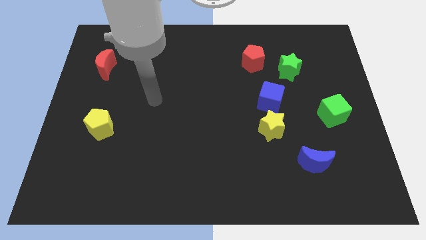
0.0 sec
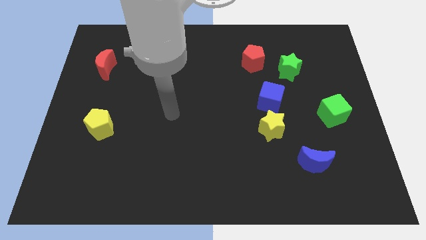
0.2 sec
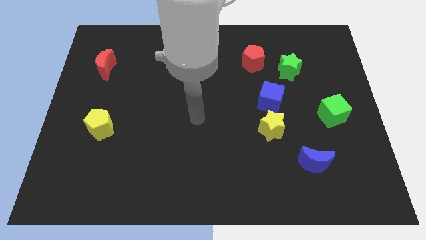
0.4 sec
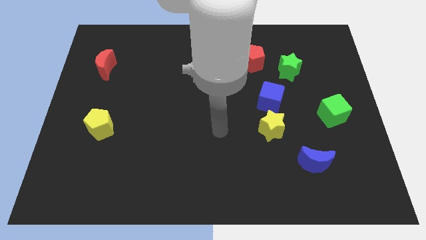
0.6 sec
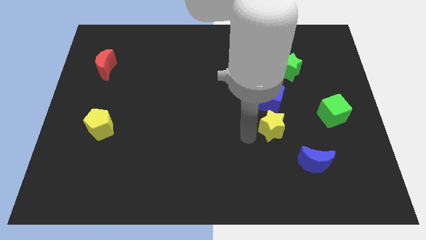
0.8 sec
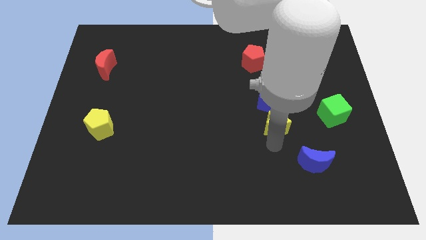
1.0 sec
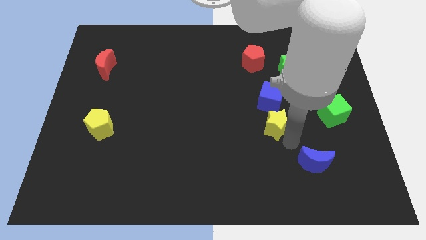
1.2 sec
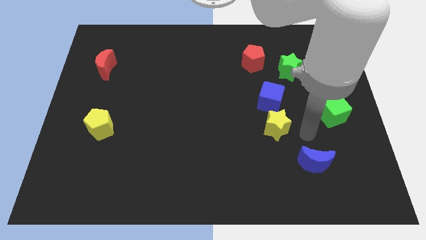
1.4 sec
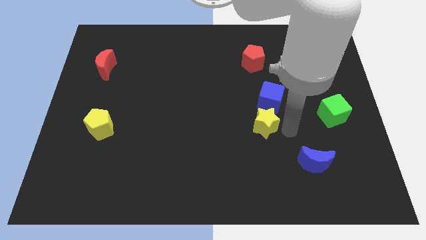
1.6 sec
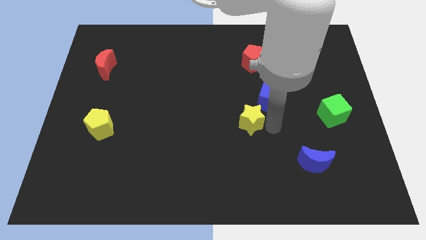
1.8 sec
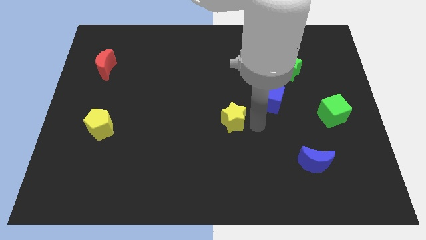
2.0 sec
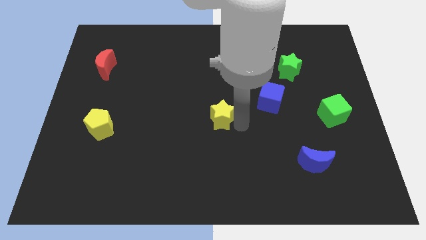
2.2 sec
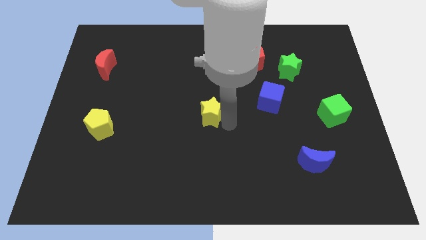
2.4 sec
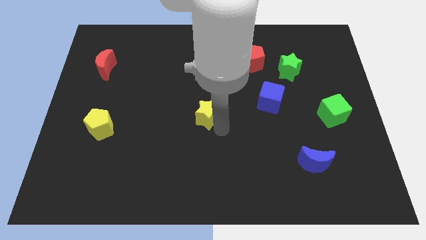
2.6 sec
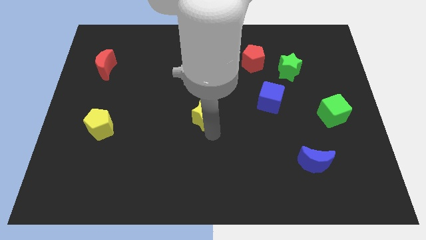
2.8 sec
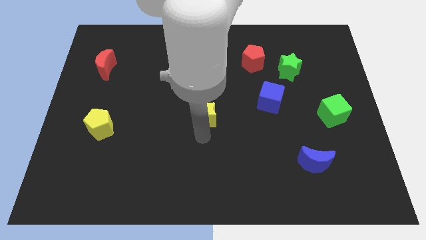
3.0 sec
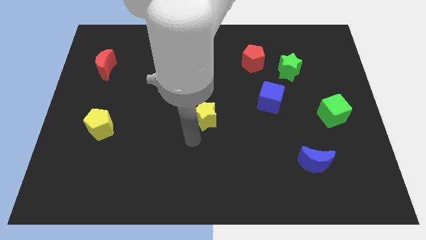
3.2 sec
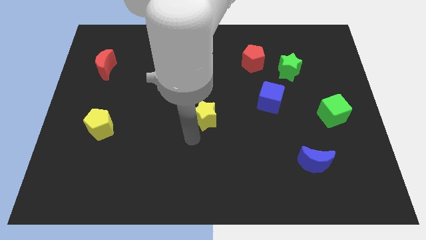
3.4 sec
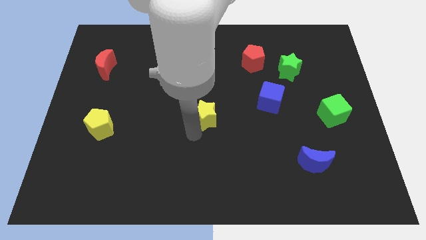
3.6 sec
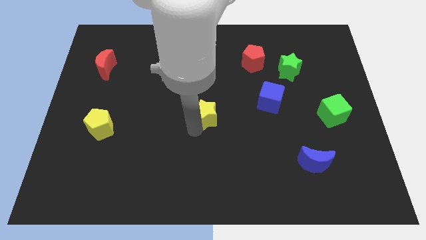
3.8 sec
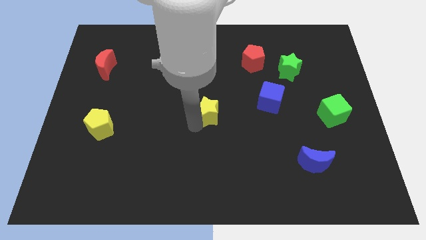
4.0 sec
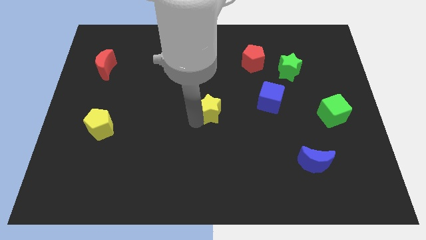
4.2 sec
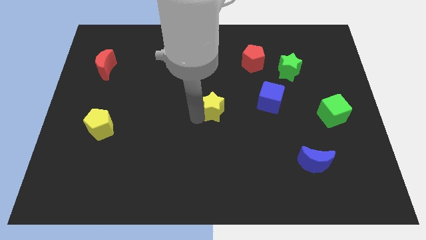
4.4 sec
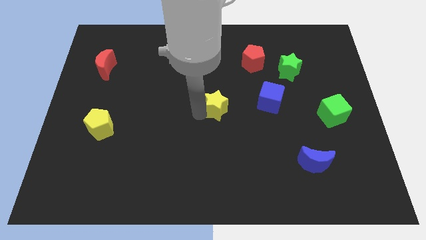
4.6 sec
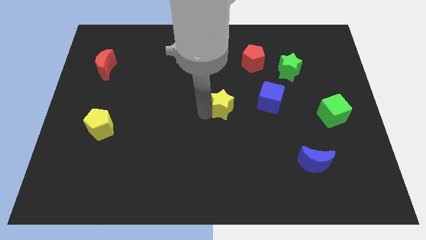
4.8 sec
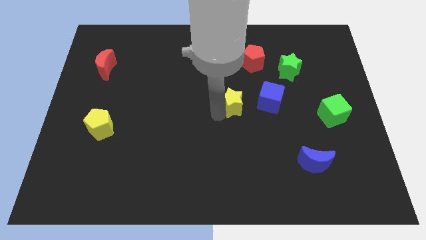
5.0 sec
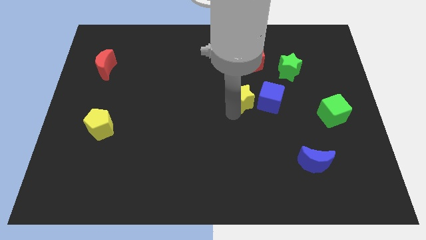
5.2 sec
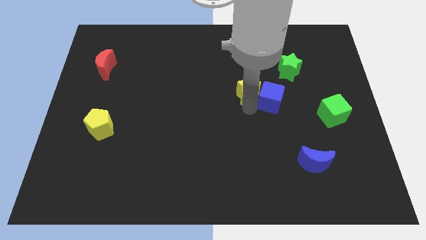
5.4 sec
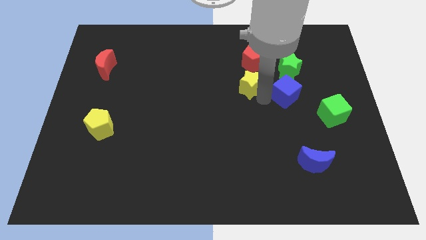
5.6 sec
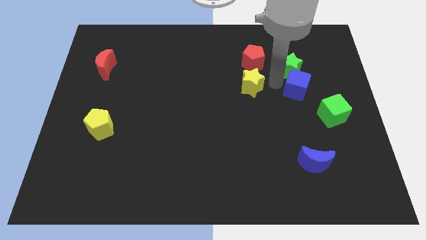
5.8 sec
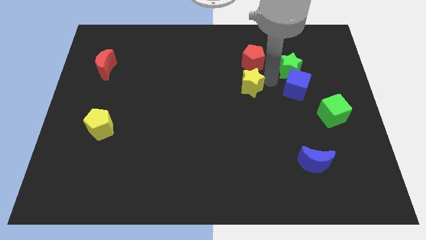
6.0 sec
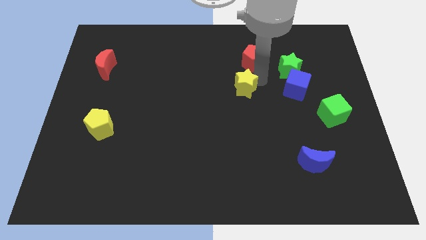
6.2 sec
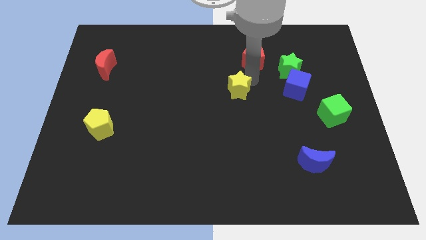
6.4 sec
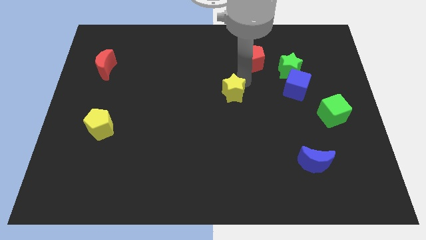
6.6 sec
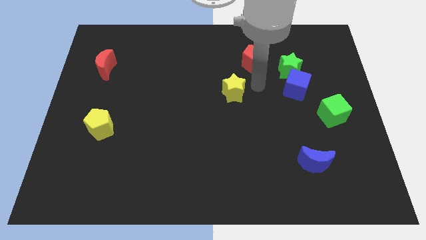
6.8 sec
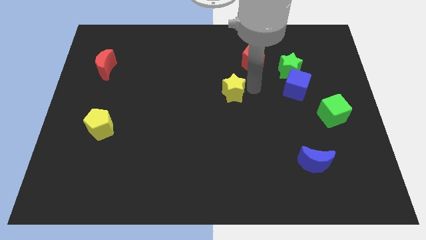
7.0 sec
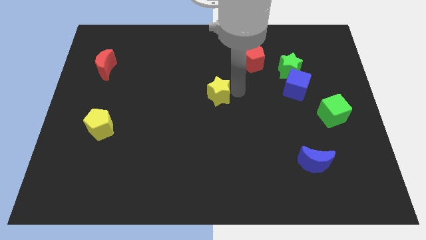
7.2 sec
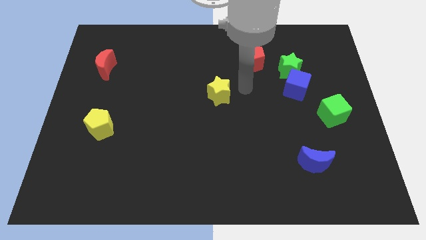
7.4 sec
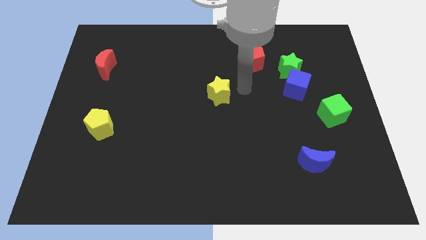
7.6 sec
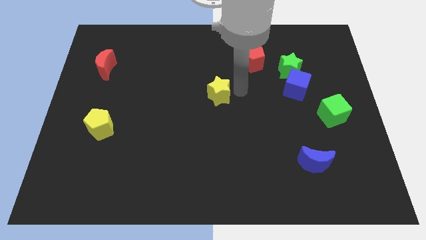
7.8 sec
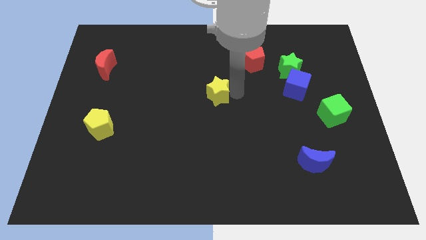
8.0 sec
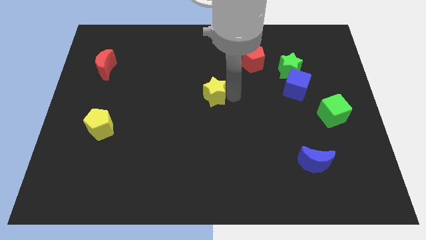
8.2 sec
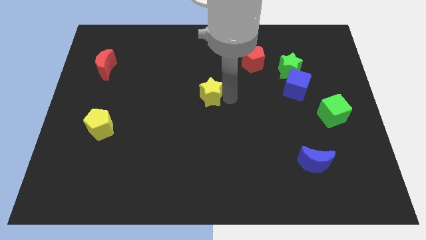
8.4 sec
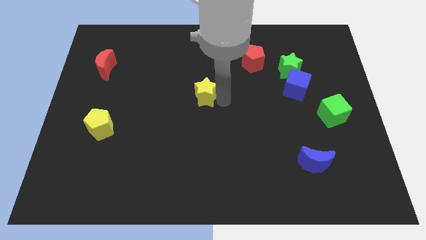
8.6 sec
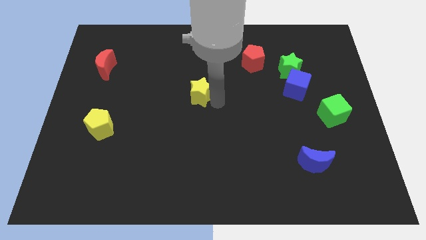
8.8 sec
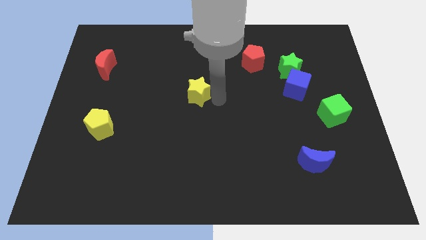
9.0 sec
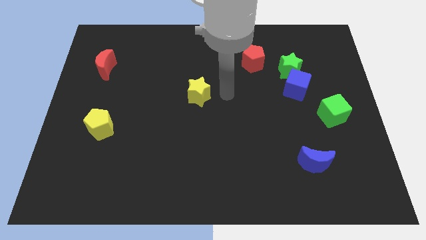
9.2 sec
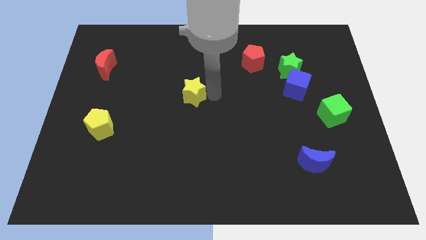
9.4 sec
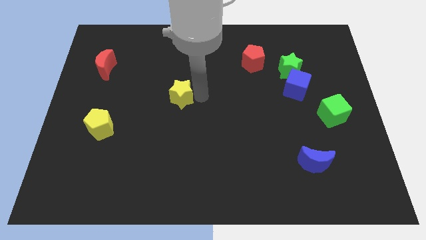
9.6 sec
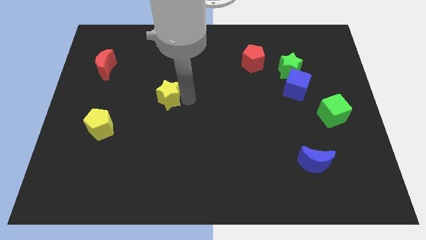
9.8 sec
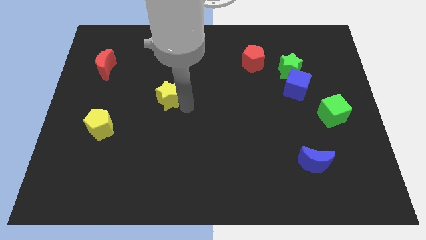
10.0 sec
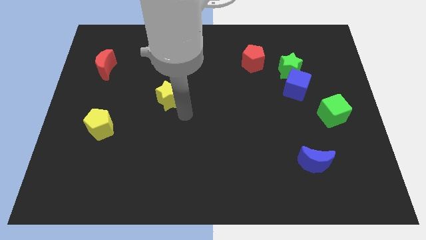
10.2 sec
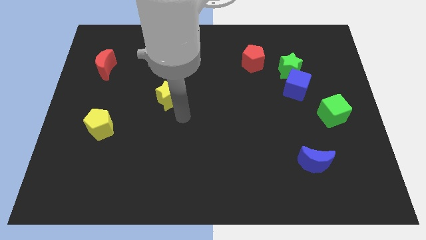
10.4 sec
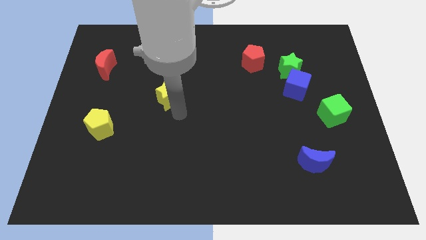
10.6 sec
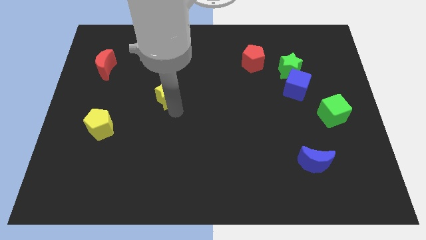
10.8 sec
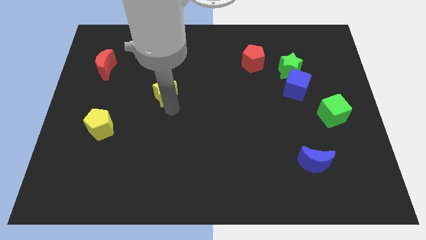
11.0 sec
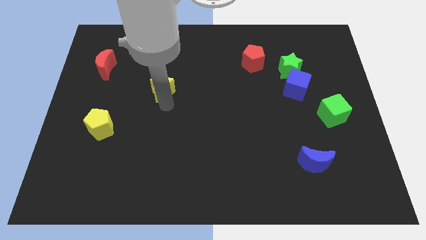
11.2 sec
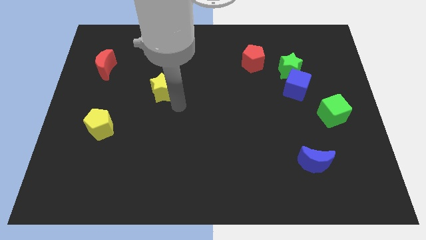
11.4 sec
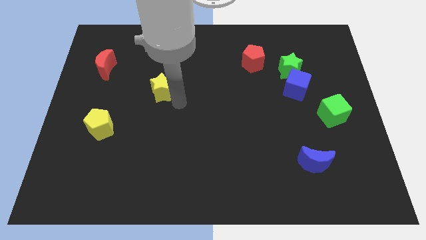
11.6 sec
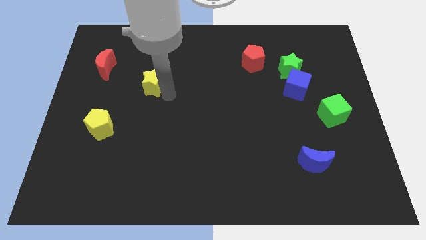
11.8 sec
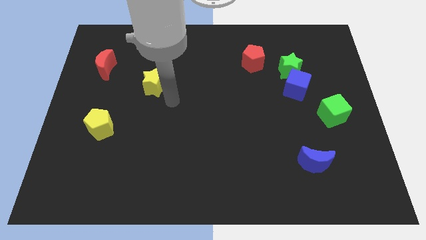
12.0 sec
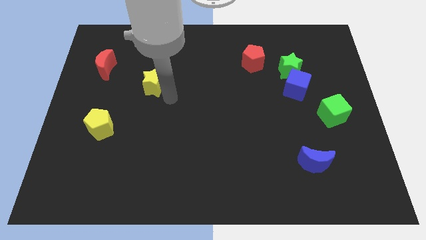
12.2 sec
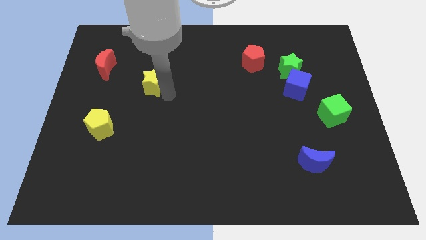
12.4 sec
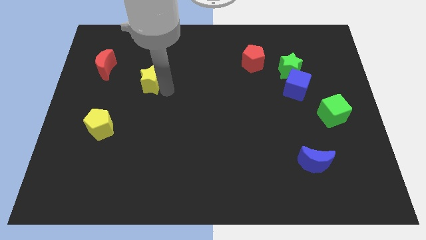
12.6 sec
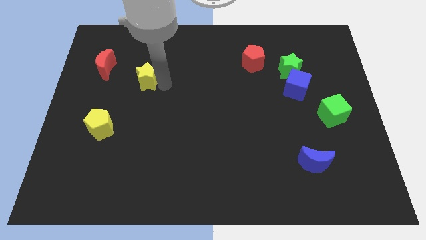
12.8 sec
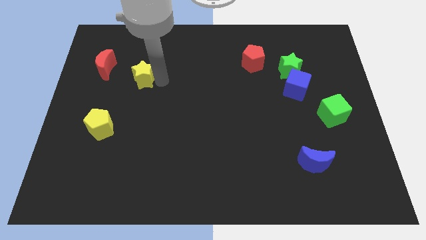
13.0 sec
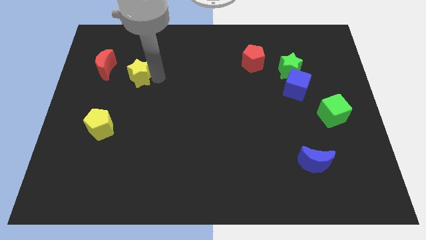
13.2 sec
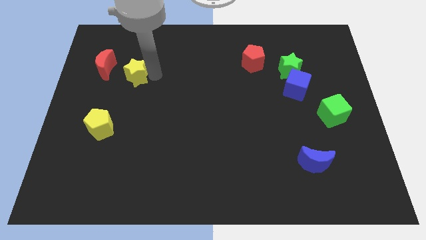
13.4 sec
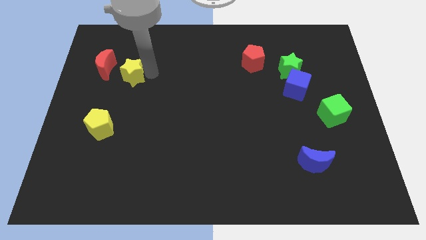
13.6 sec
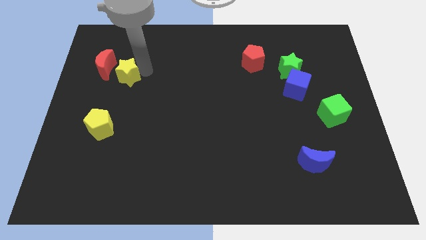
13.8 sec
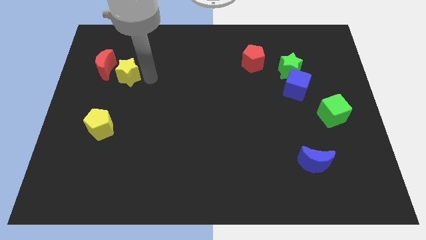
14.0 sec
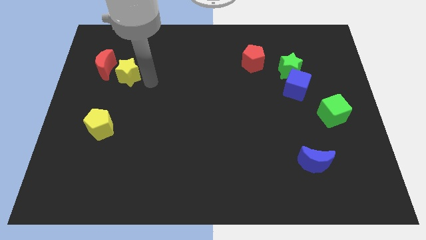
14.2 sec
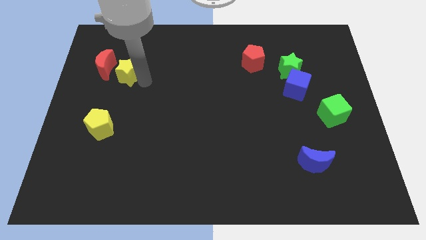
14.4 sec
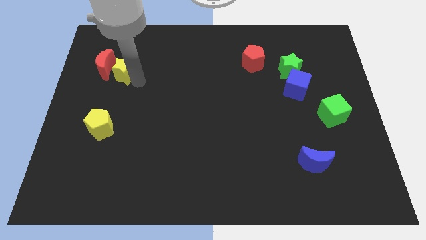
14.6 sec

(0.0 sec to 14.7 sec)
put the yellow star close to the red moon
